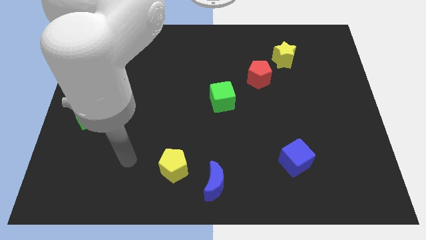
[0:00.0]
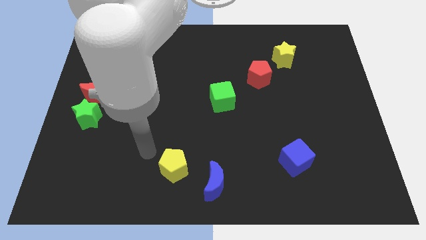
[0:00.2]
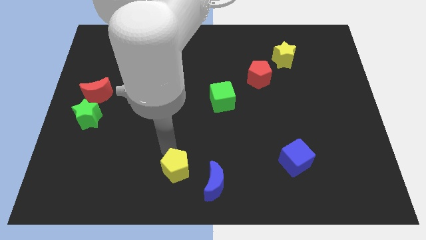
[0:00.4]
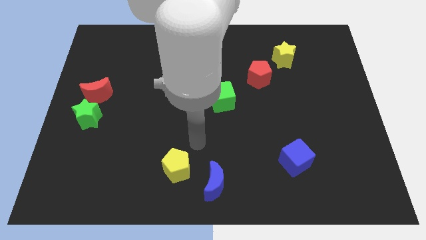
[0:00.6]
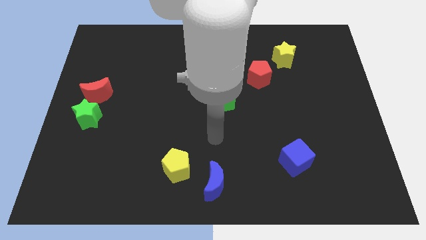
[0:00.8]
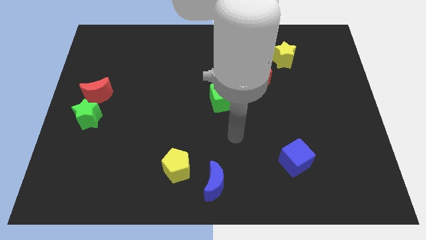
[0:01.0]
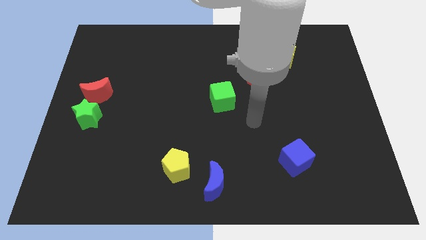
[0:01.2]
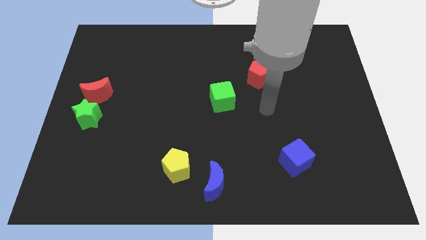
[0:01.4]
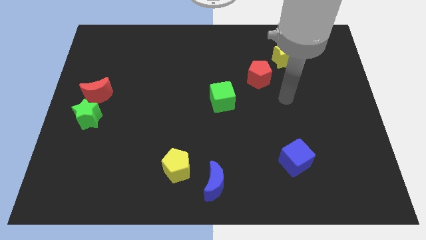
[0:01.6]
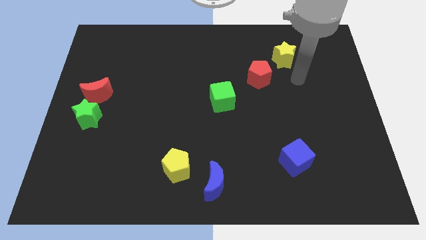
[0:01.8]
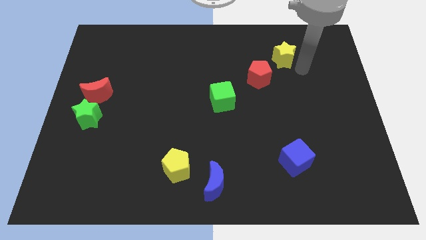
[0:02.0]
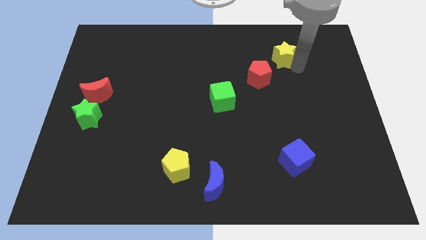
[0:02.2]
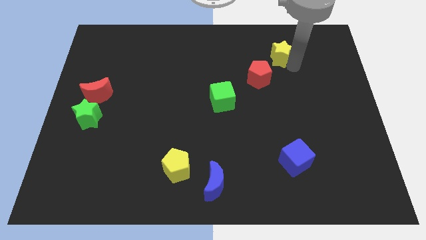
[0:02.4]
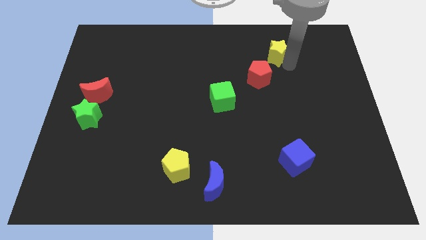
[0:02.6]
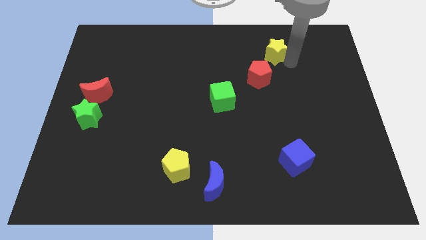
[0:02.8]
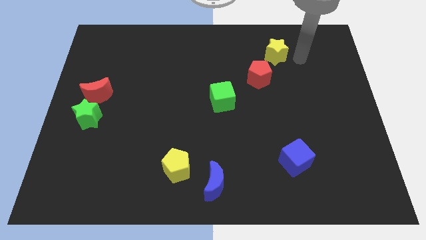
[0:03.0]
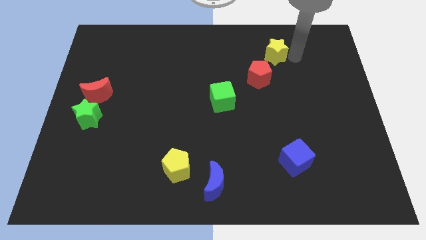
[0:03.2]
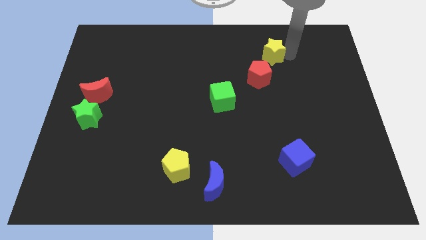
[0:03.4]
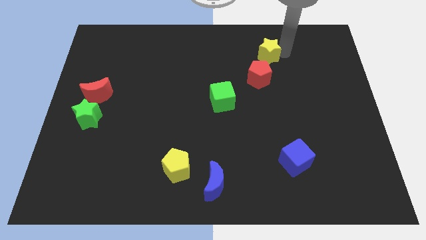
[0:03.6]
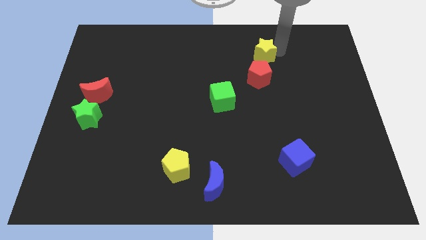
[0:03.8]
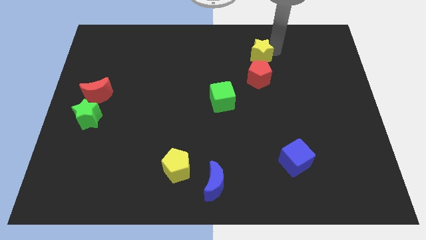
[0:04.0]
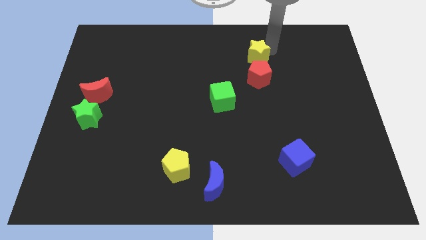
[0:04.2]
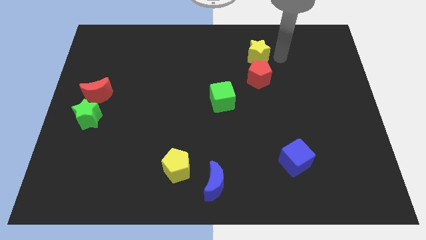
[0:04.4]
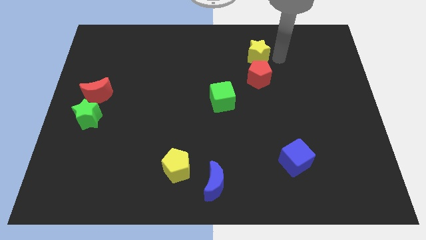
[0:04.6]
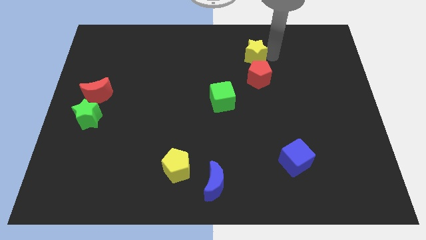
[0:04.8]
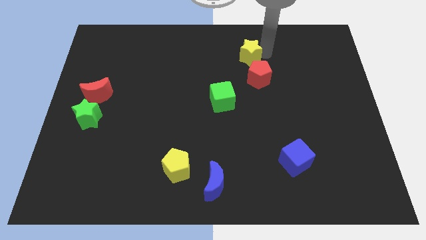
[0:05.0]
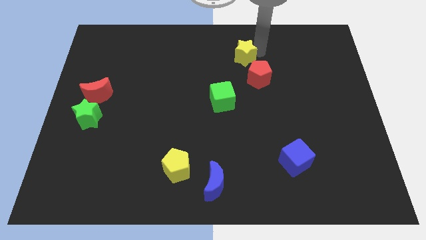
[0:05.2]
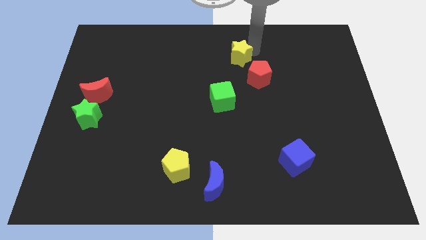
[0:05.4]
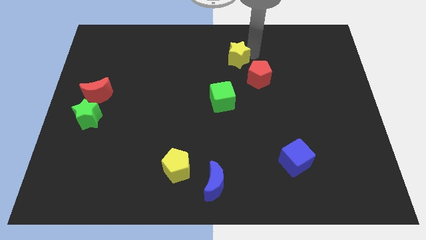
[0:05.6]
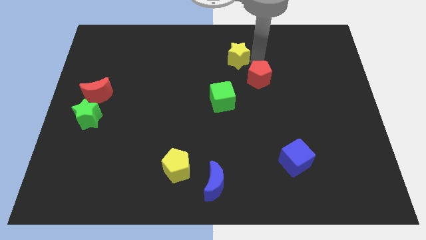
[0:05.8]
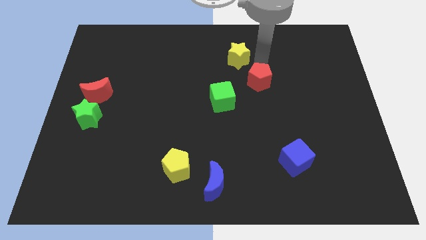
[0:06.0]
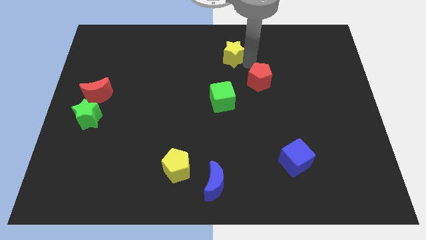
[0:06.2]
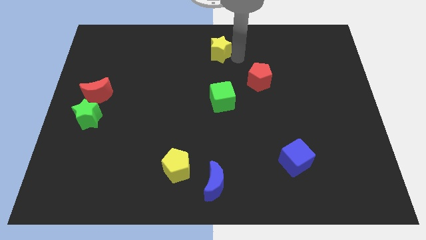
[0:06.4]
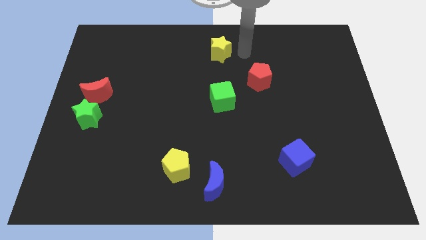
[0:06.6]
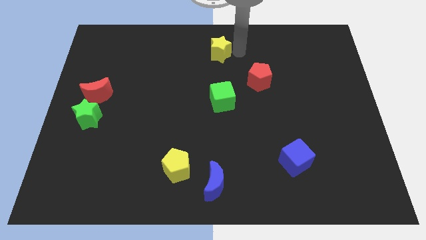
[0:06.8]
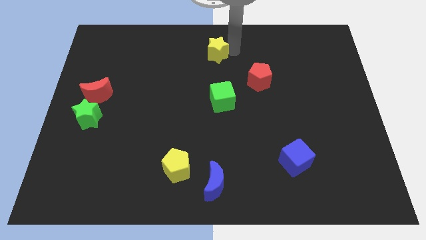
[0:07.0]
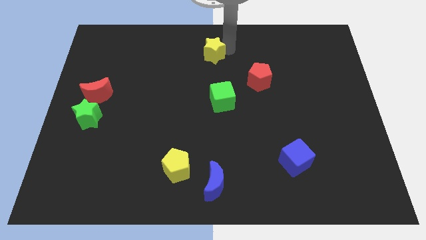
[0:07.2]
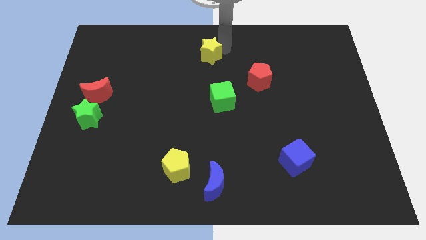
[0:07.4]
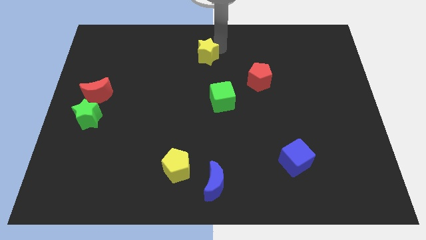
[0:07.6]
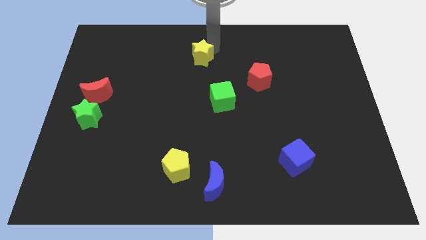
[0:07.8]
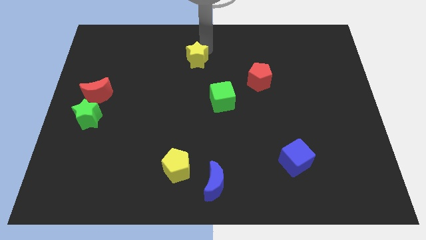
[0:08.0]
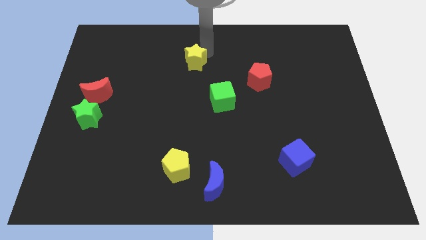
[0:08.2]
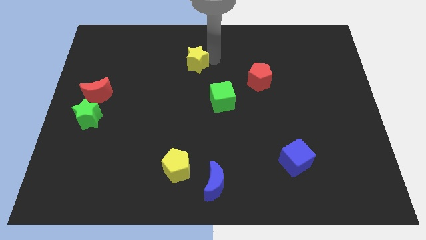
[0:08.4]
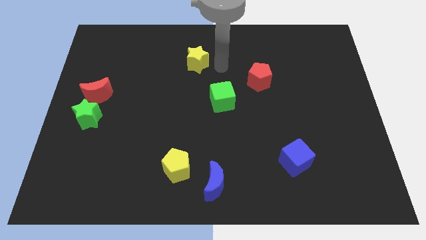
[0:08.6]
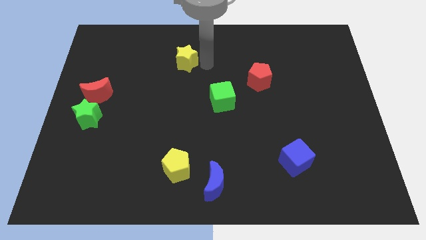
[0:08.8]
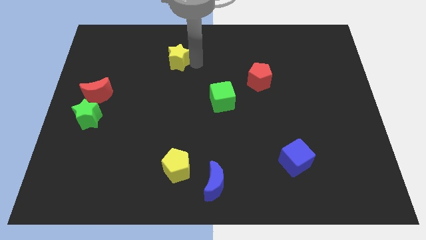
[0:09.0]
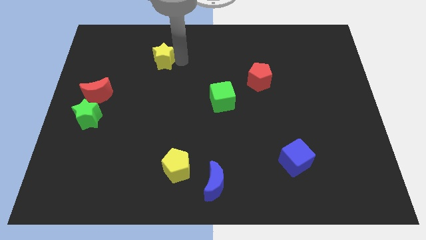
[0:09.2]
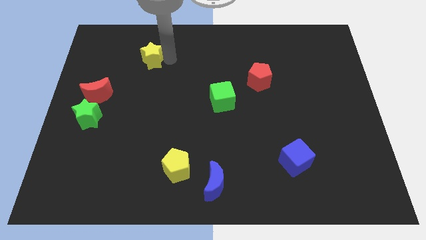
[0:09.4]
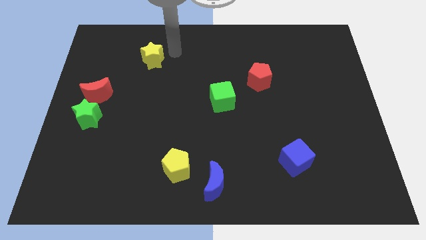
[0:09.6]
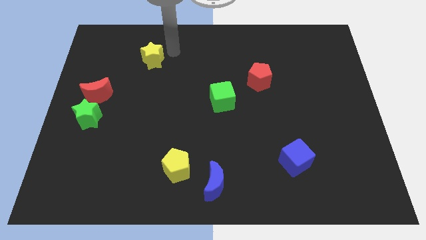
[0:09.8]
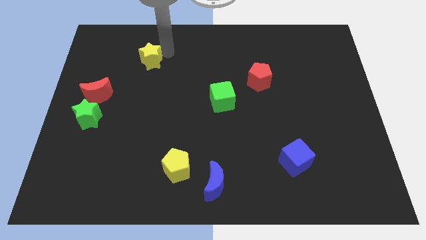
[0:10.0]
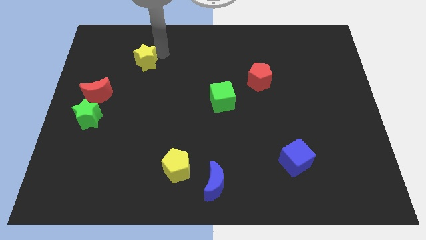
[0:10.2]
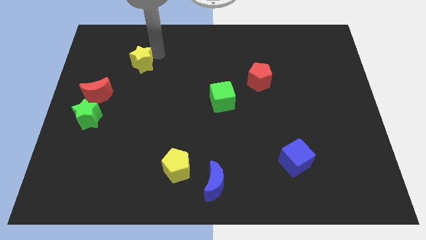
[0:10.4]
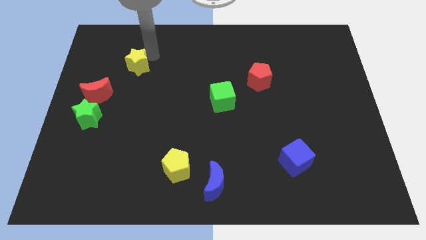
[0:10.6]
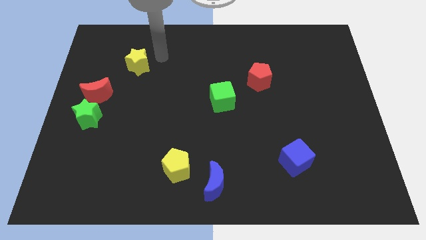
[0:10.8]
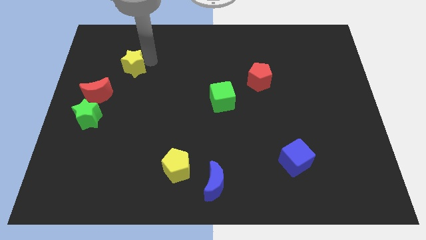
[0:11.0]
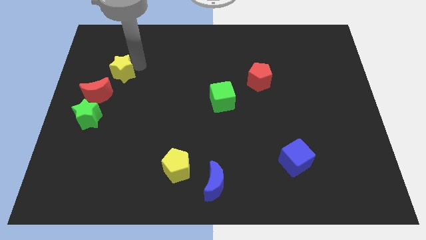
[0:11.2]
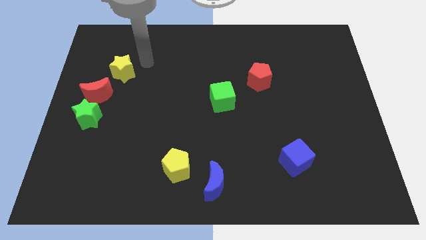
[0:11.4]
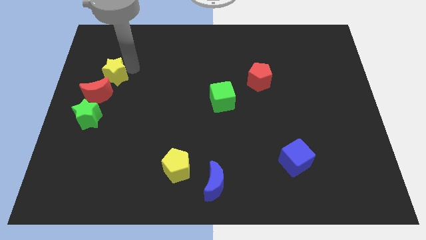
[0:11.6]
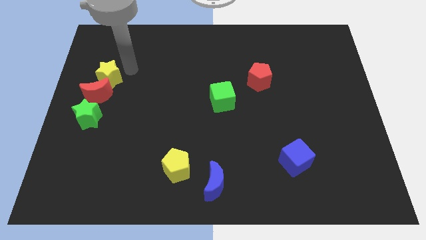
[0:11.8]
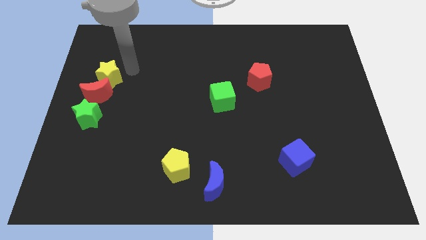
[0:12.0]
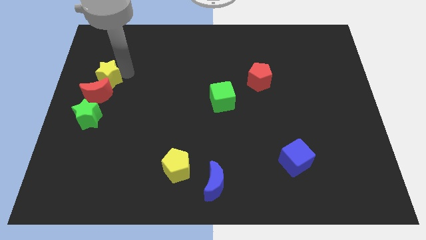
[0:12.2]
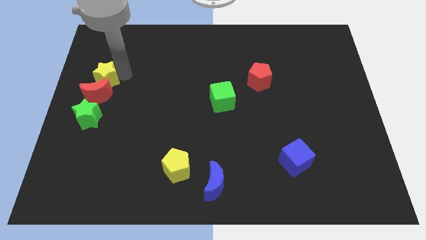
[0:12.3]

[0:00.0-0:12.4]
put the yellow star to the left side of the board
